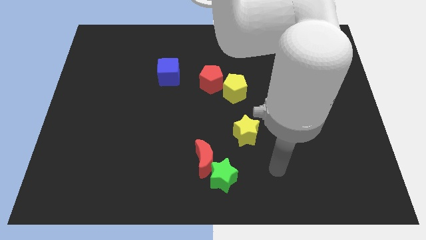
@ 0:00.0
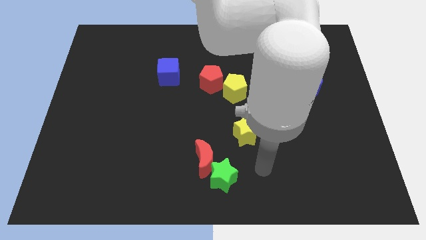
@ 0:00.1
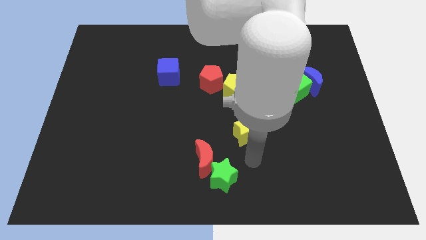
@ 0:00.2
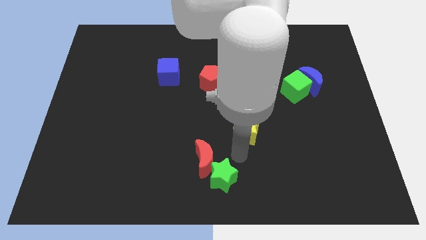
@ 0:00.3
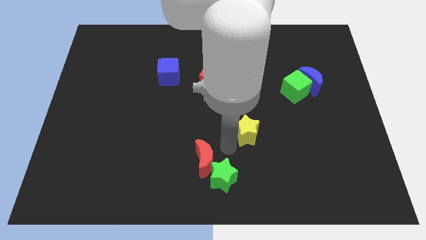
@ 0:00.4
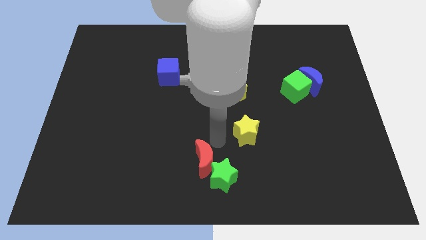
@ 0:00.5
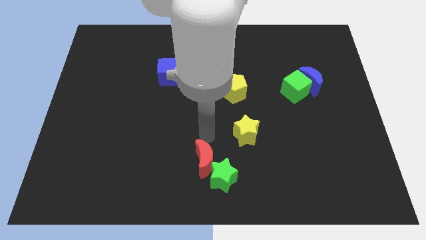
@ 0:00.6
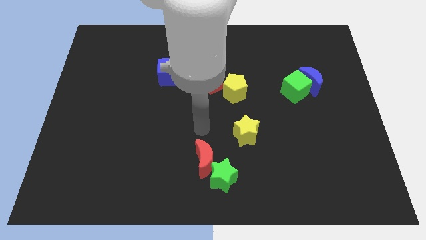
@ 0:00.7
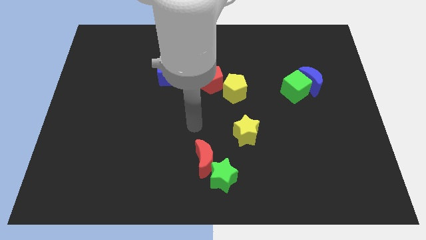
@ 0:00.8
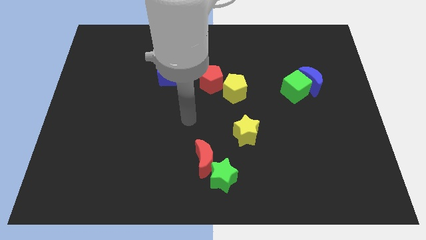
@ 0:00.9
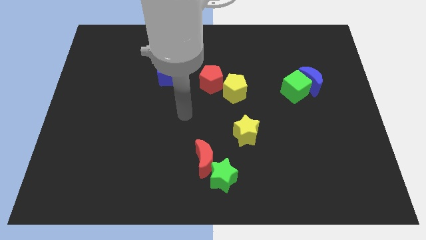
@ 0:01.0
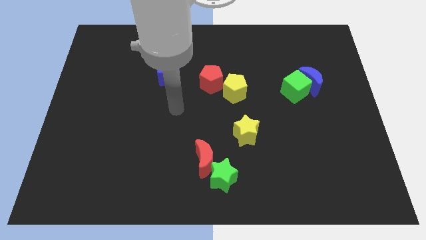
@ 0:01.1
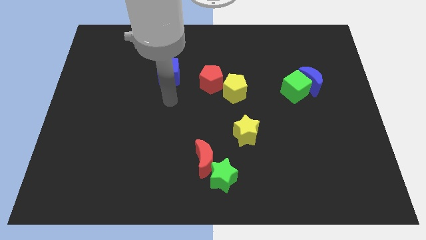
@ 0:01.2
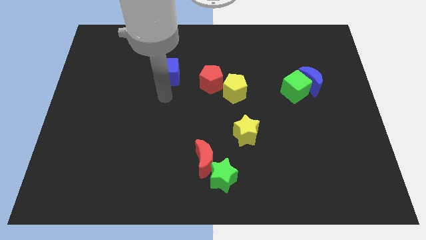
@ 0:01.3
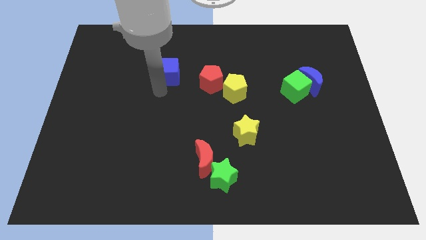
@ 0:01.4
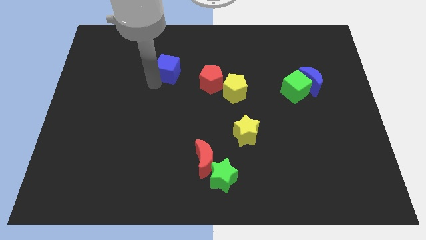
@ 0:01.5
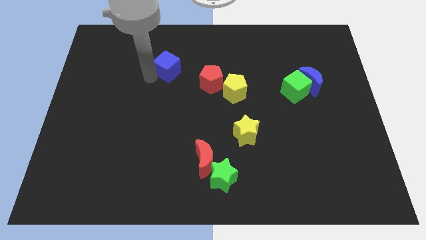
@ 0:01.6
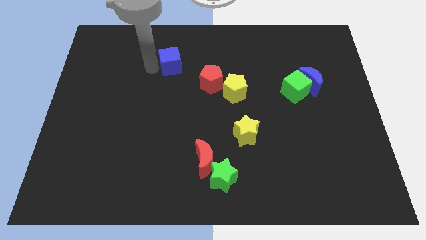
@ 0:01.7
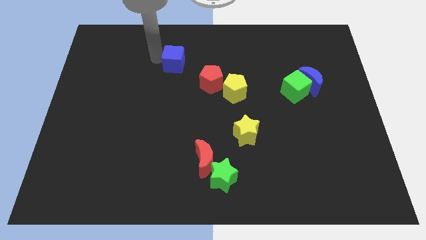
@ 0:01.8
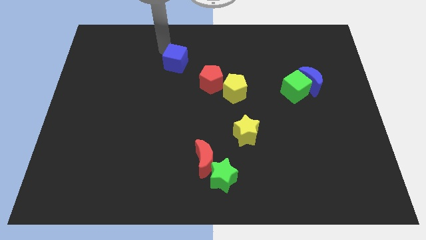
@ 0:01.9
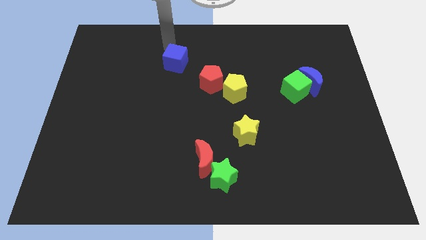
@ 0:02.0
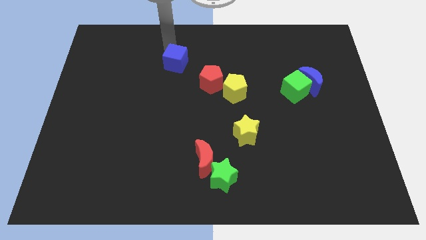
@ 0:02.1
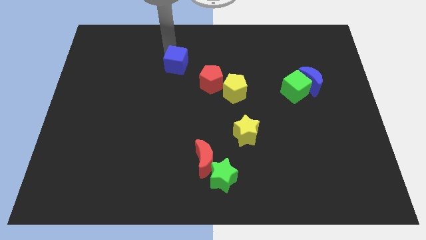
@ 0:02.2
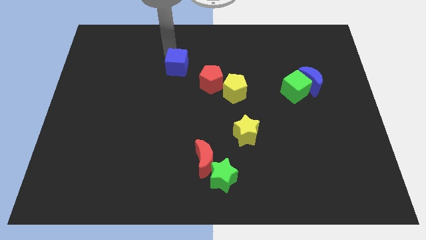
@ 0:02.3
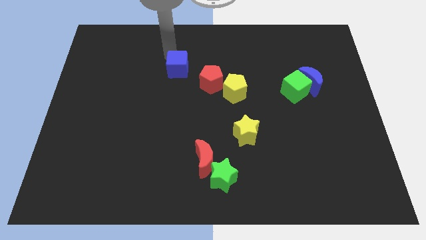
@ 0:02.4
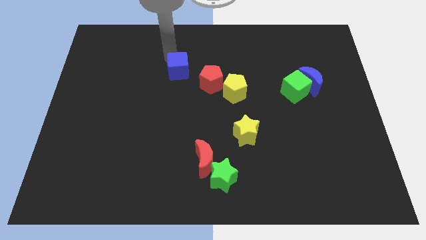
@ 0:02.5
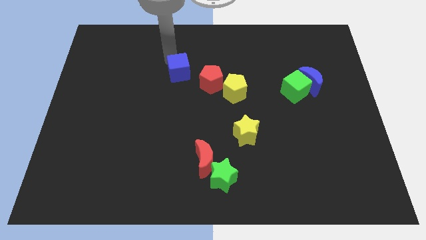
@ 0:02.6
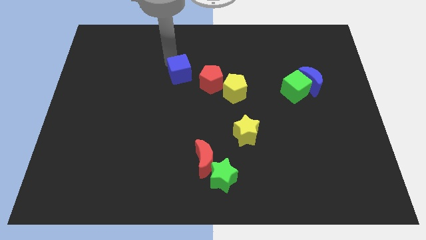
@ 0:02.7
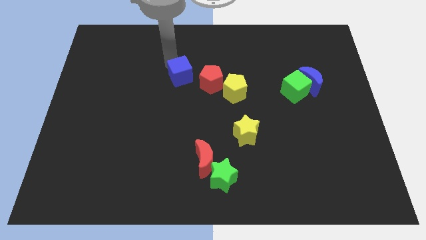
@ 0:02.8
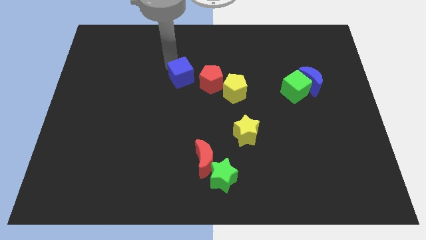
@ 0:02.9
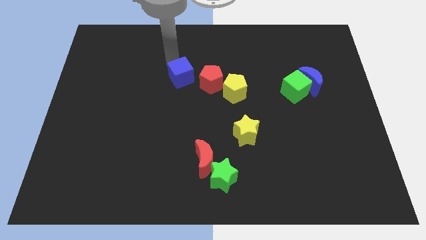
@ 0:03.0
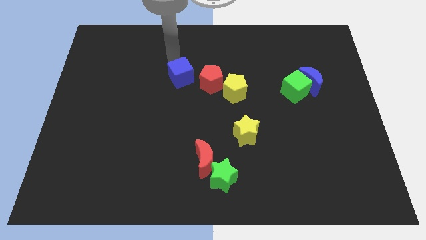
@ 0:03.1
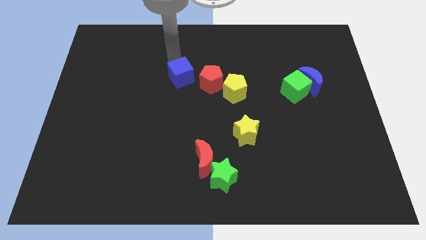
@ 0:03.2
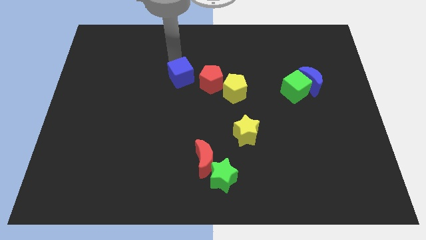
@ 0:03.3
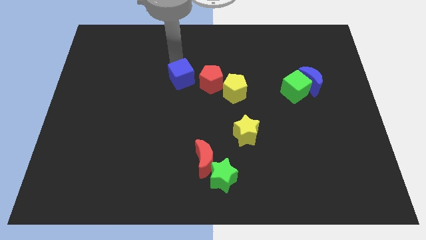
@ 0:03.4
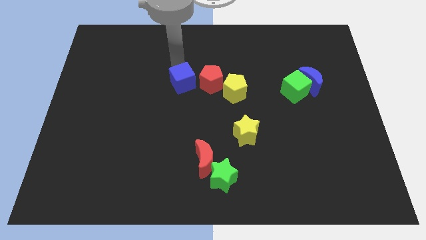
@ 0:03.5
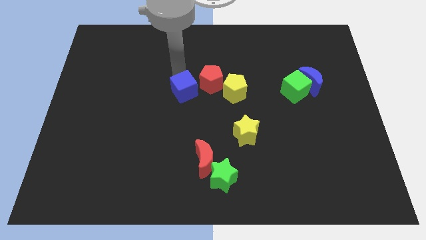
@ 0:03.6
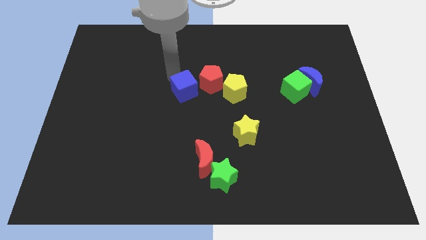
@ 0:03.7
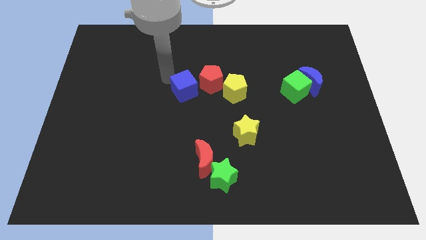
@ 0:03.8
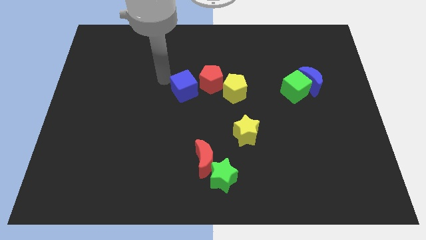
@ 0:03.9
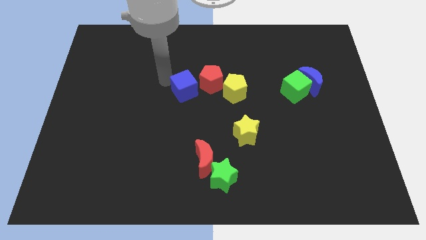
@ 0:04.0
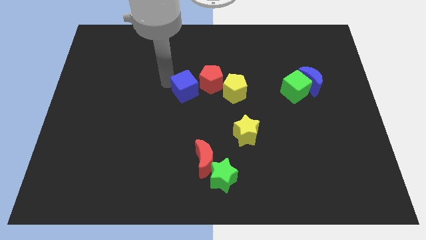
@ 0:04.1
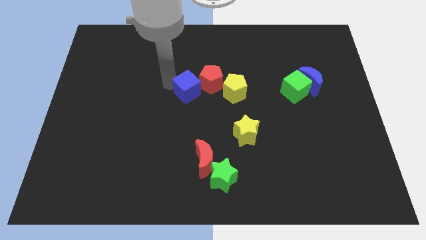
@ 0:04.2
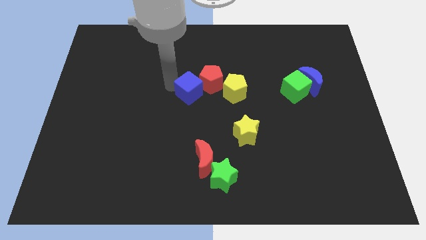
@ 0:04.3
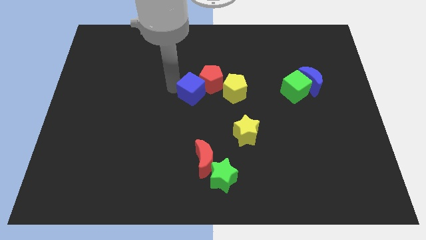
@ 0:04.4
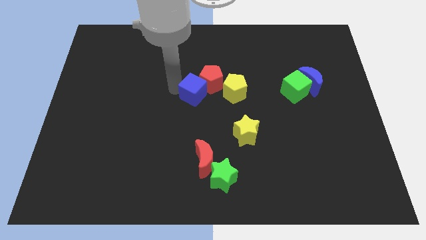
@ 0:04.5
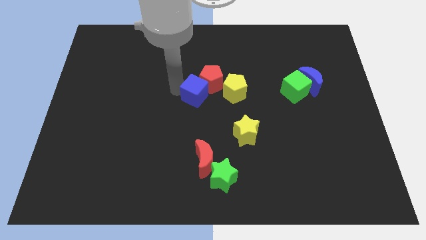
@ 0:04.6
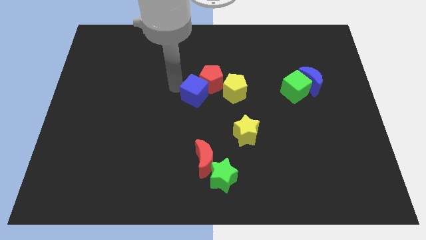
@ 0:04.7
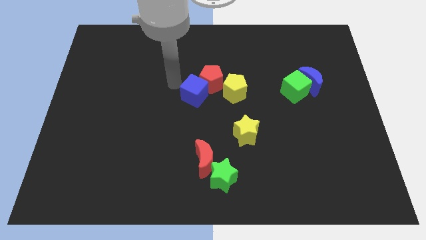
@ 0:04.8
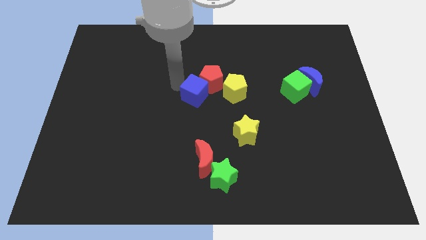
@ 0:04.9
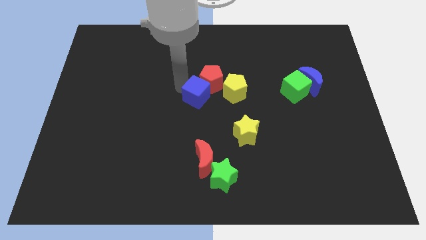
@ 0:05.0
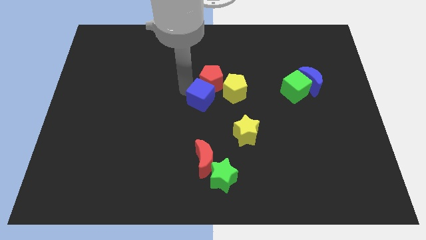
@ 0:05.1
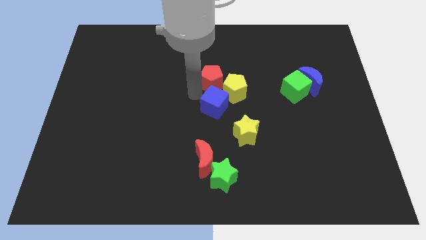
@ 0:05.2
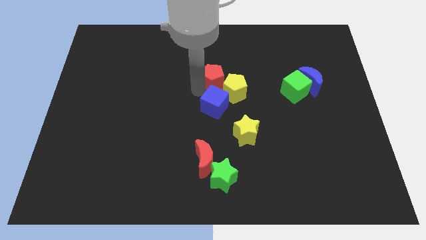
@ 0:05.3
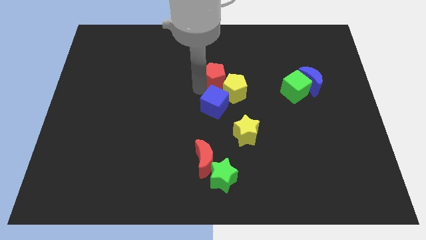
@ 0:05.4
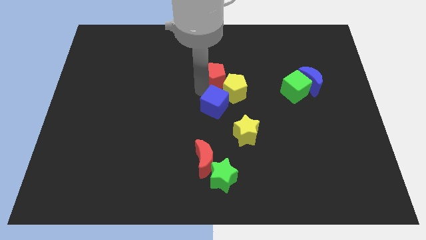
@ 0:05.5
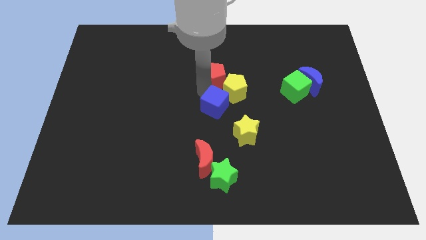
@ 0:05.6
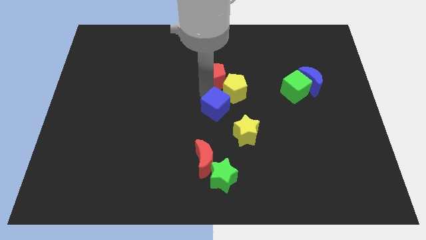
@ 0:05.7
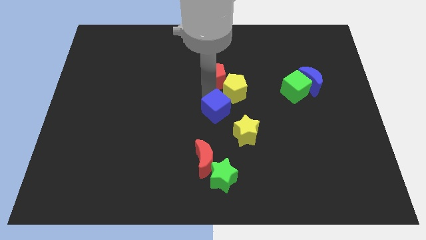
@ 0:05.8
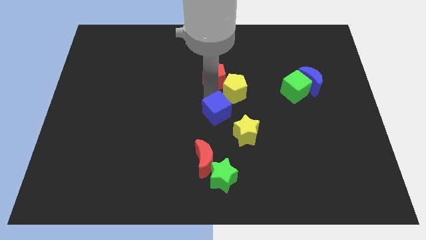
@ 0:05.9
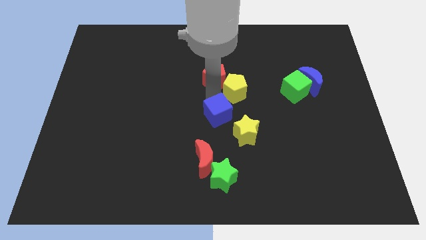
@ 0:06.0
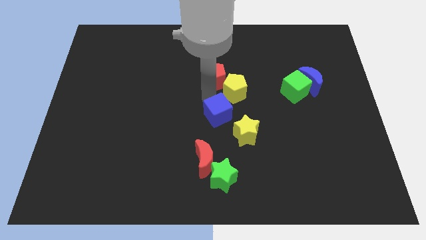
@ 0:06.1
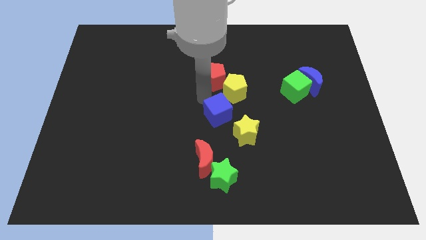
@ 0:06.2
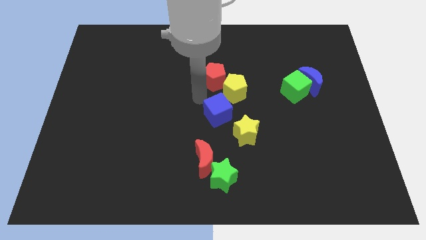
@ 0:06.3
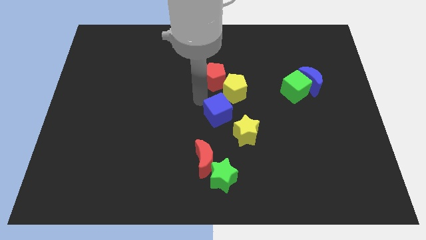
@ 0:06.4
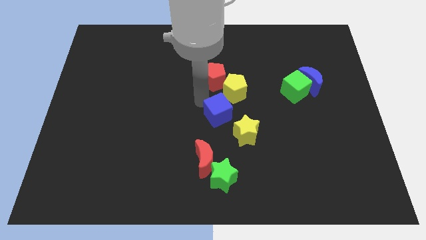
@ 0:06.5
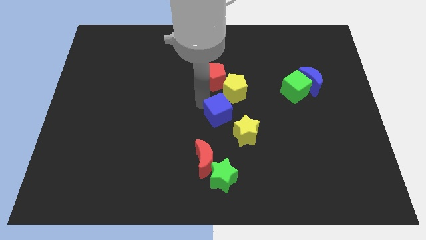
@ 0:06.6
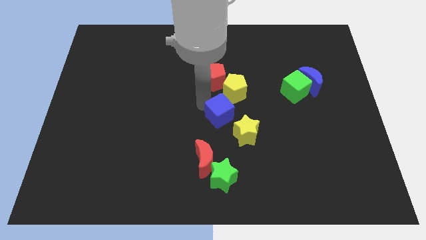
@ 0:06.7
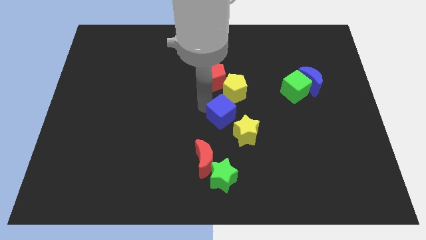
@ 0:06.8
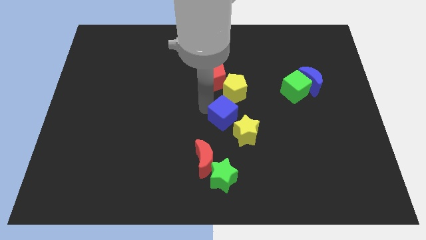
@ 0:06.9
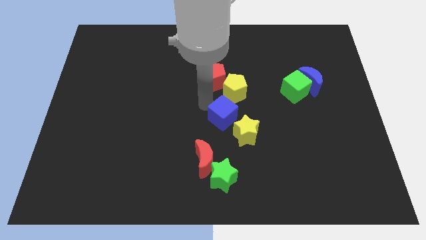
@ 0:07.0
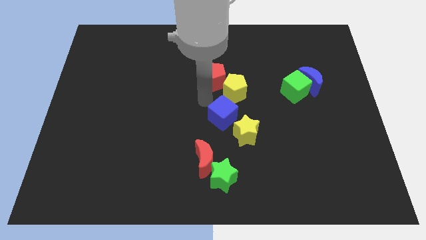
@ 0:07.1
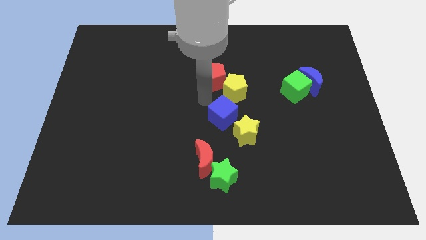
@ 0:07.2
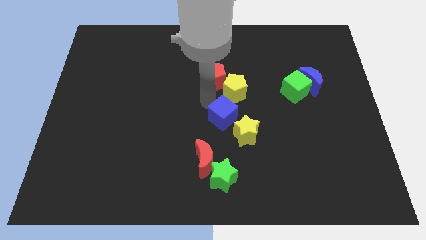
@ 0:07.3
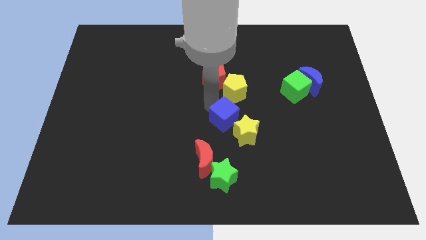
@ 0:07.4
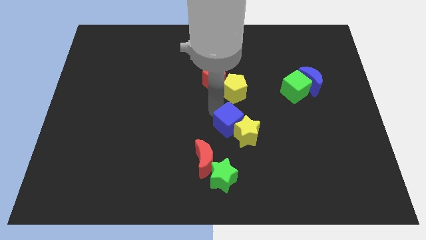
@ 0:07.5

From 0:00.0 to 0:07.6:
push the blue cube next to the yellow star

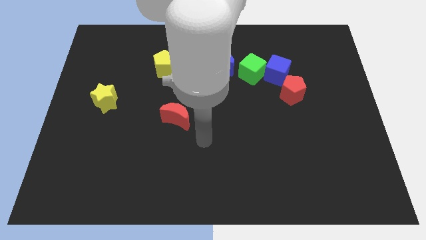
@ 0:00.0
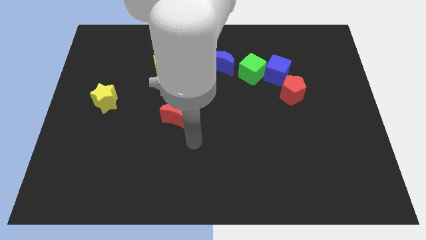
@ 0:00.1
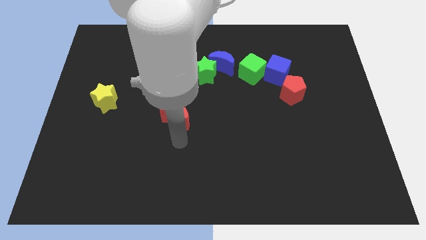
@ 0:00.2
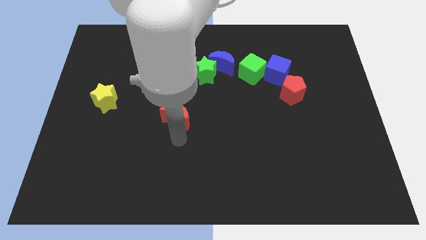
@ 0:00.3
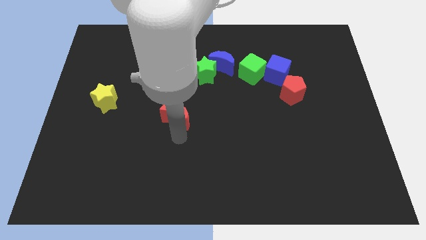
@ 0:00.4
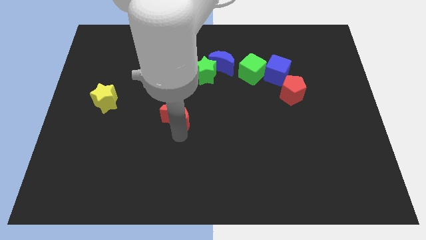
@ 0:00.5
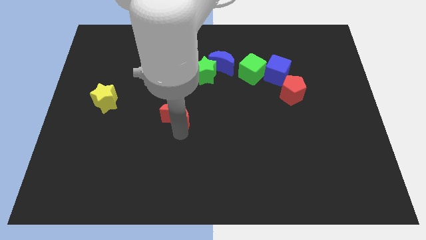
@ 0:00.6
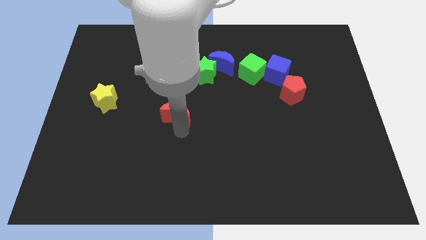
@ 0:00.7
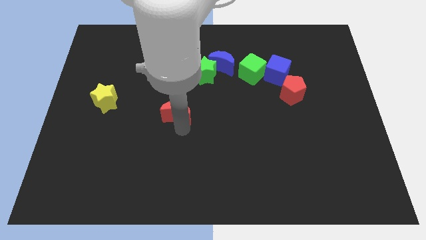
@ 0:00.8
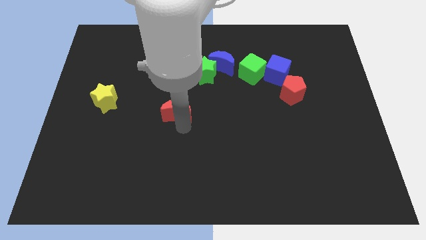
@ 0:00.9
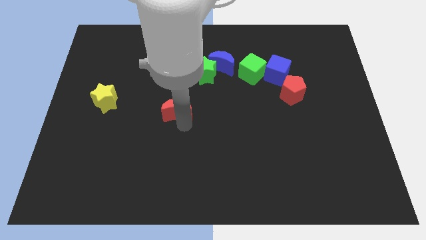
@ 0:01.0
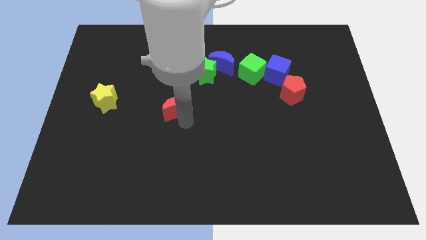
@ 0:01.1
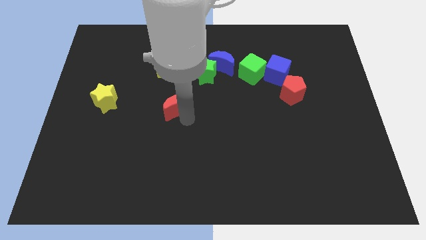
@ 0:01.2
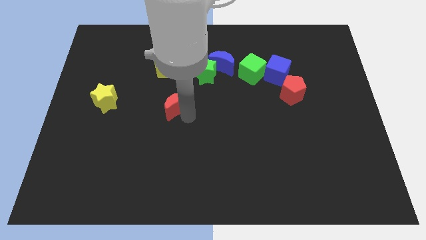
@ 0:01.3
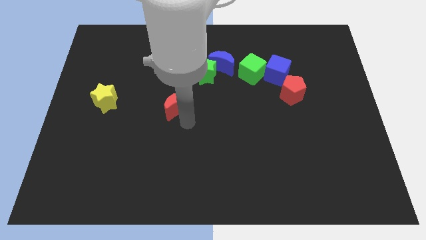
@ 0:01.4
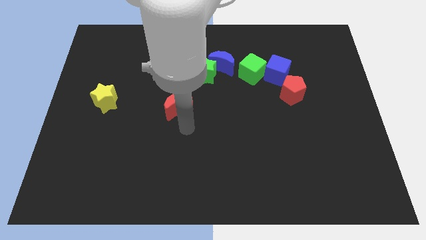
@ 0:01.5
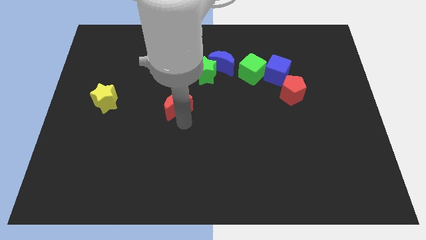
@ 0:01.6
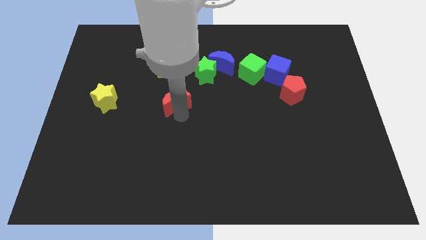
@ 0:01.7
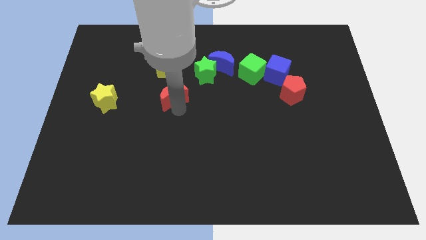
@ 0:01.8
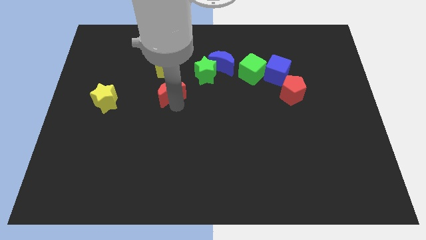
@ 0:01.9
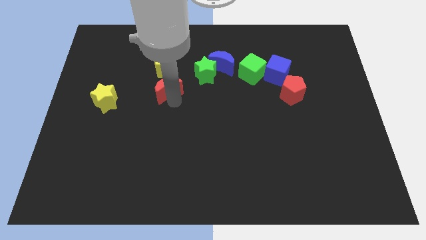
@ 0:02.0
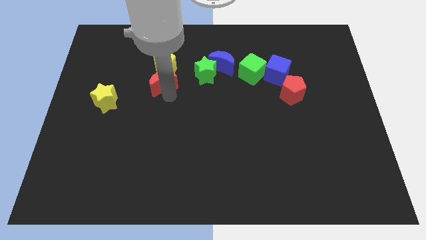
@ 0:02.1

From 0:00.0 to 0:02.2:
put the red moon close to the yellow pentagon
